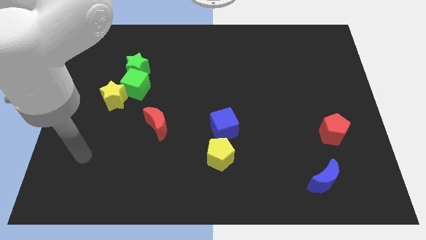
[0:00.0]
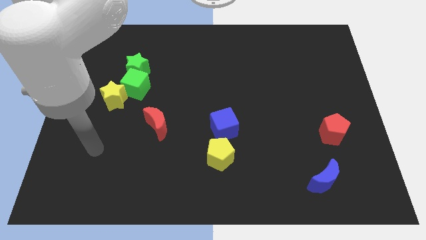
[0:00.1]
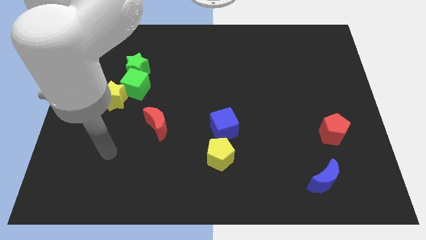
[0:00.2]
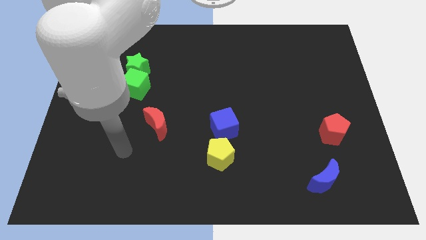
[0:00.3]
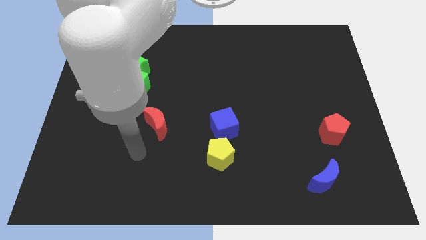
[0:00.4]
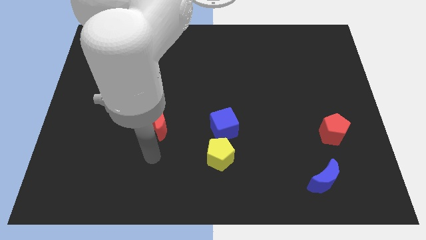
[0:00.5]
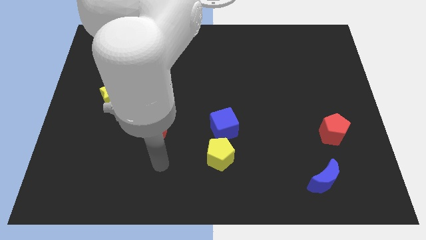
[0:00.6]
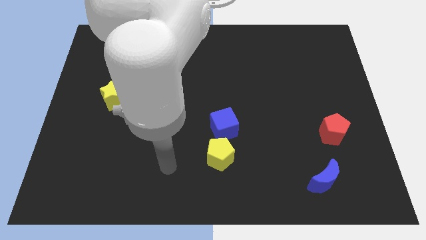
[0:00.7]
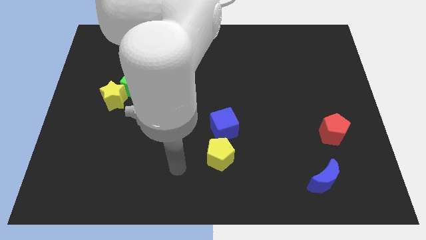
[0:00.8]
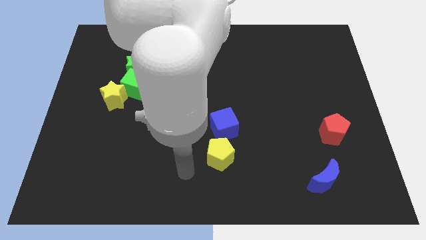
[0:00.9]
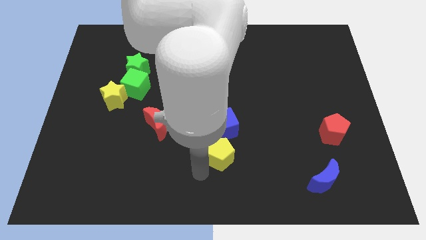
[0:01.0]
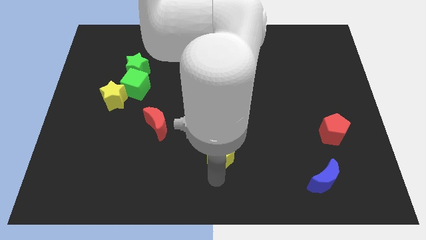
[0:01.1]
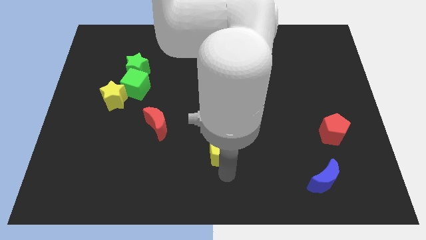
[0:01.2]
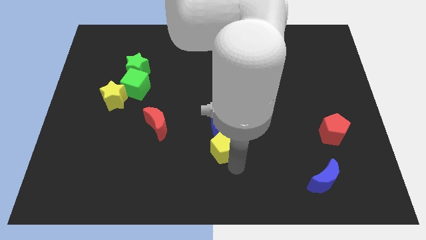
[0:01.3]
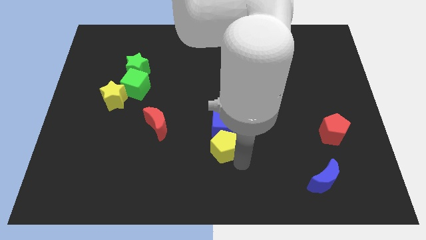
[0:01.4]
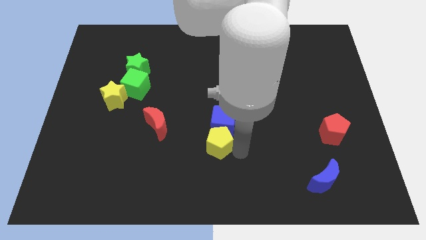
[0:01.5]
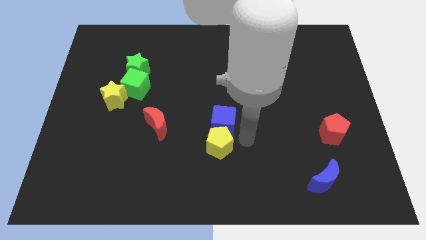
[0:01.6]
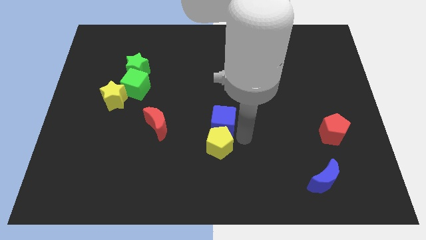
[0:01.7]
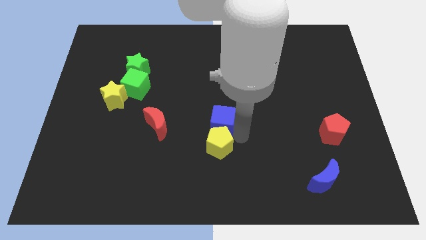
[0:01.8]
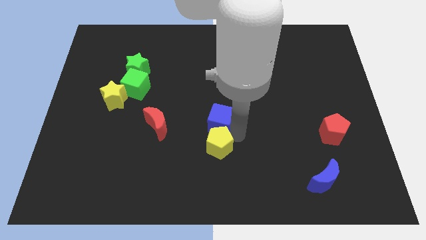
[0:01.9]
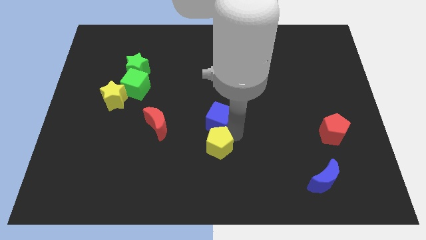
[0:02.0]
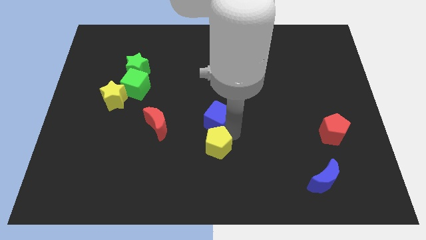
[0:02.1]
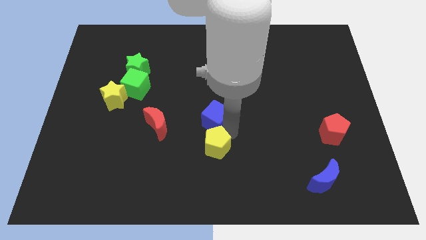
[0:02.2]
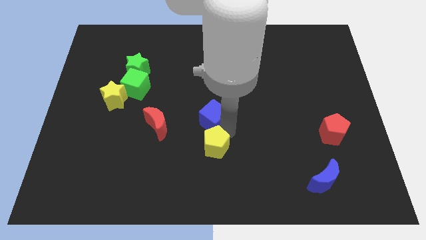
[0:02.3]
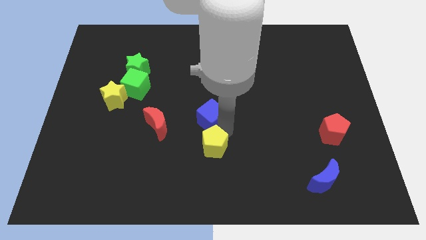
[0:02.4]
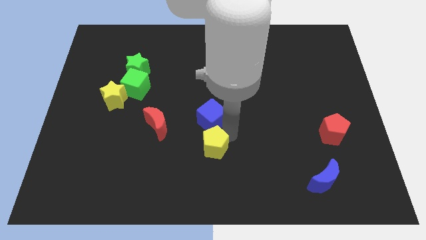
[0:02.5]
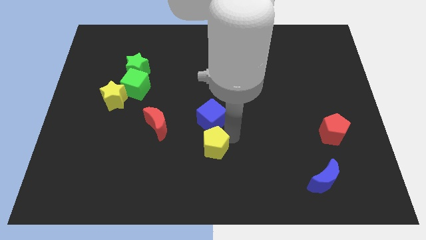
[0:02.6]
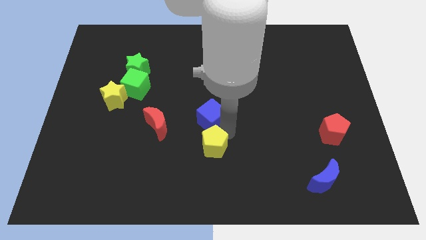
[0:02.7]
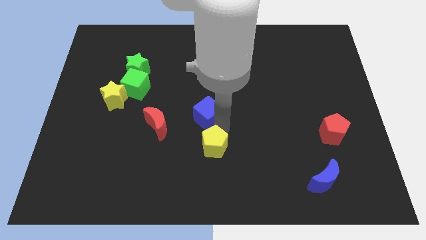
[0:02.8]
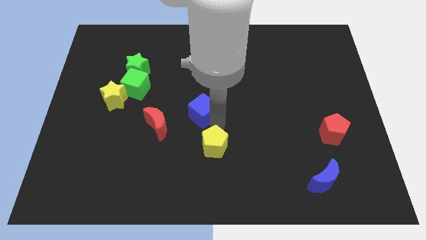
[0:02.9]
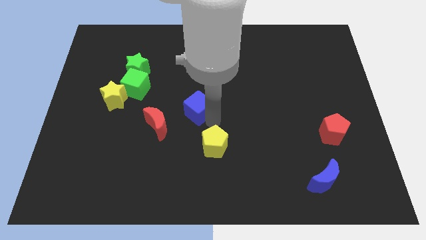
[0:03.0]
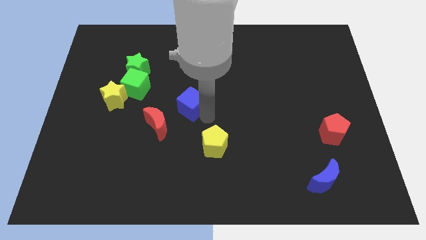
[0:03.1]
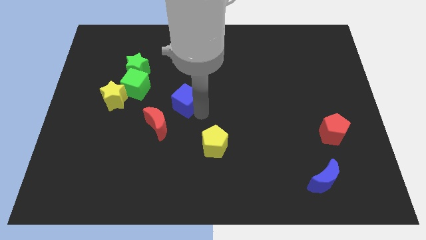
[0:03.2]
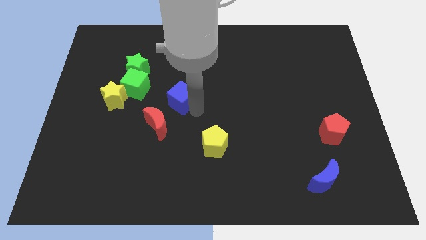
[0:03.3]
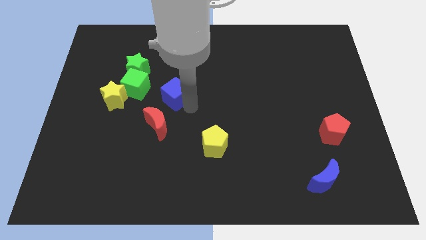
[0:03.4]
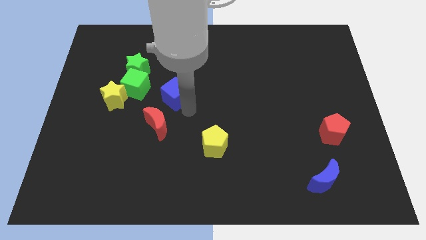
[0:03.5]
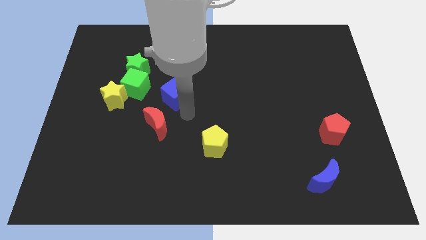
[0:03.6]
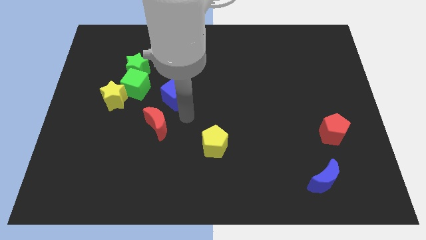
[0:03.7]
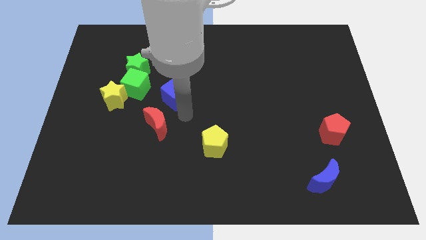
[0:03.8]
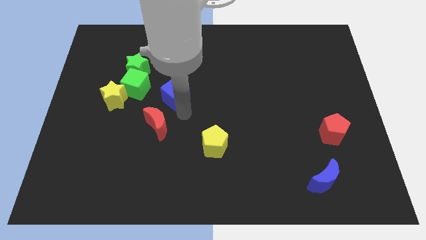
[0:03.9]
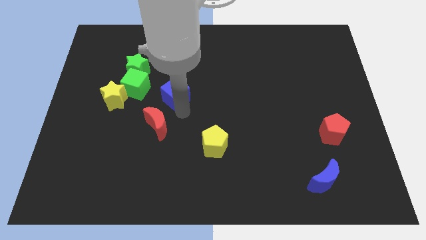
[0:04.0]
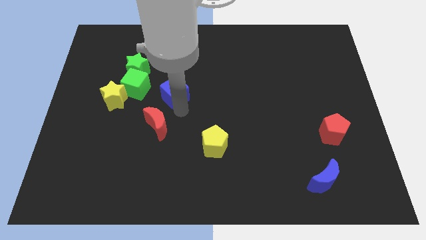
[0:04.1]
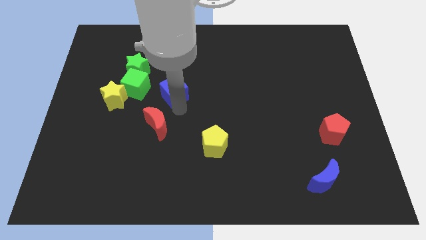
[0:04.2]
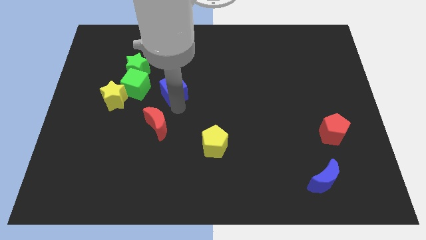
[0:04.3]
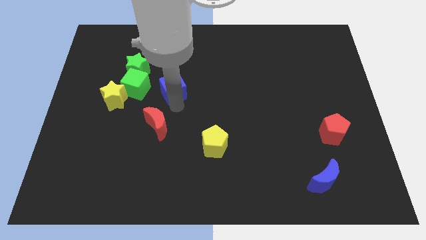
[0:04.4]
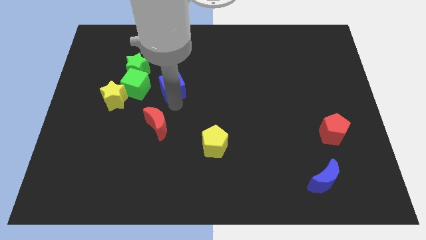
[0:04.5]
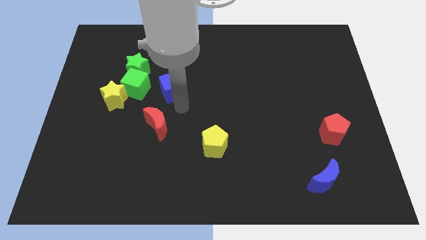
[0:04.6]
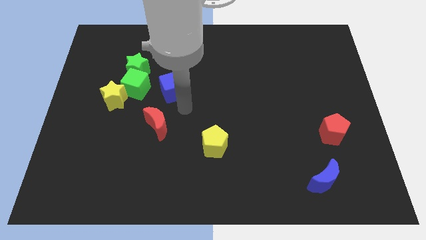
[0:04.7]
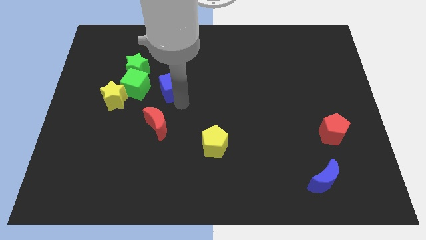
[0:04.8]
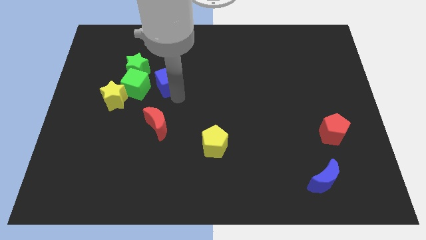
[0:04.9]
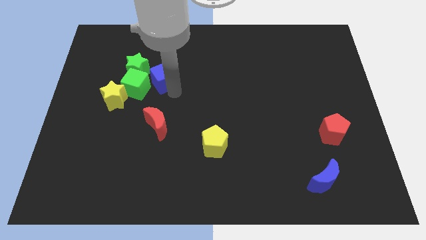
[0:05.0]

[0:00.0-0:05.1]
push the blue cube upwards and left

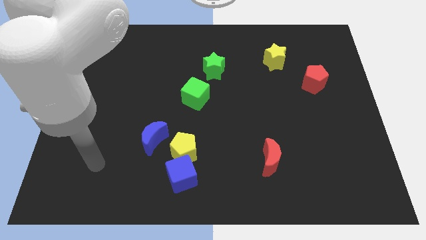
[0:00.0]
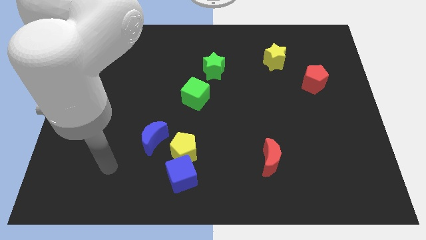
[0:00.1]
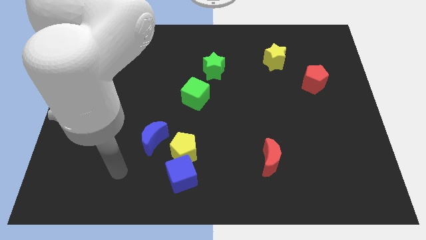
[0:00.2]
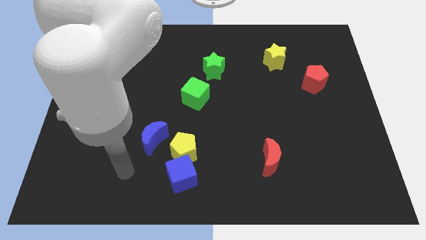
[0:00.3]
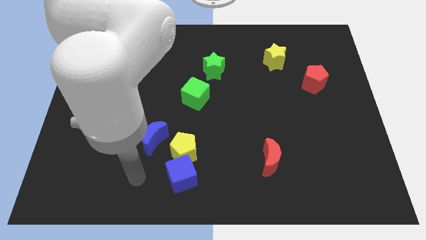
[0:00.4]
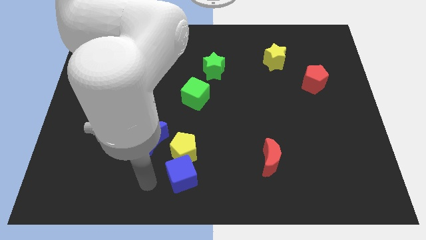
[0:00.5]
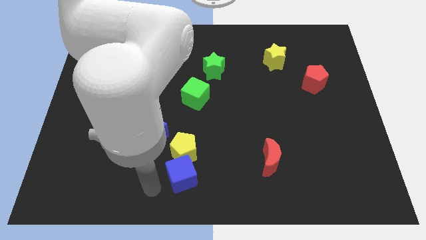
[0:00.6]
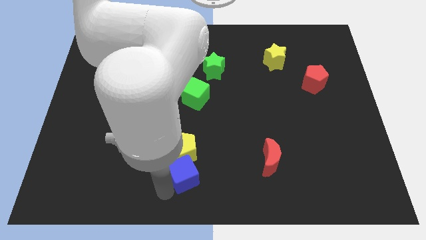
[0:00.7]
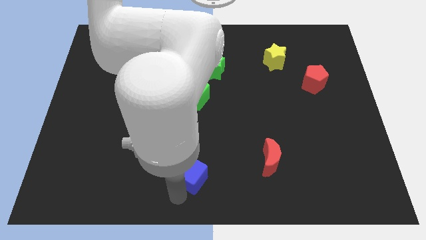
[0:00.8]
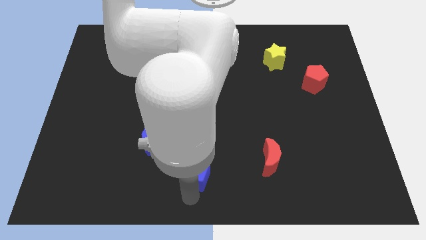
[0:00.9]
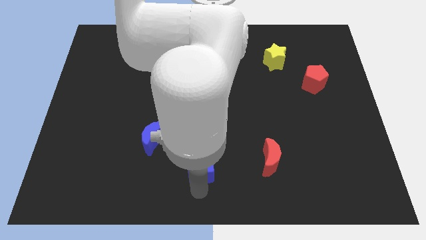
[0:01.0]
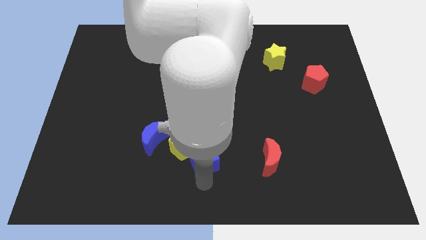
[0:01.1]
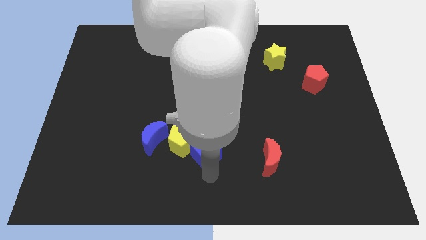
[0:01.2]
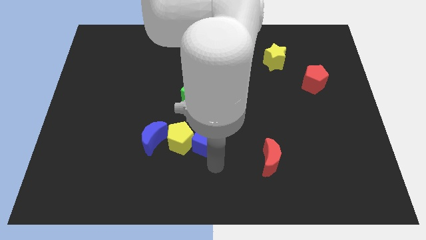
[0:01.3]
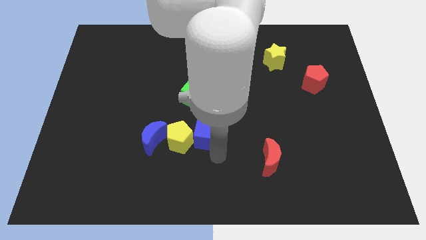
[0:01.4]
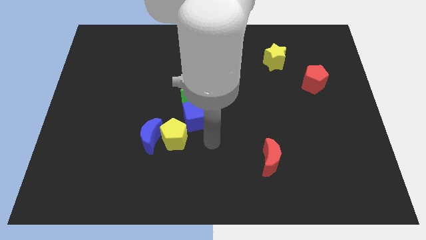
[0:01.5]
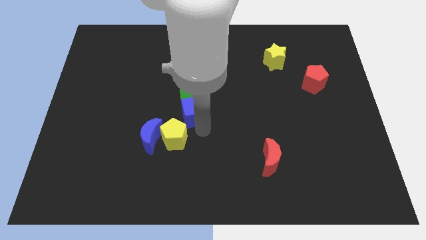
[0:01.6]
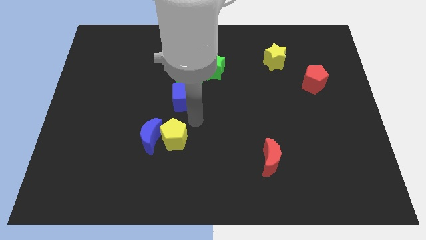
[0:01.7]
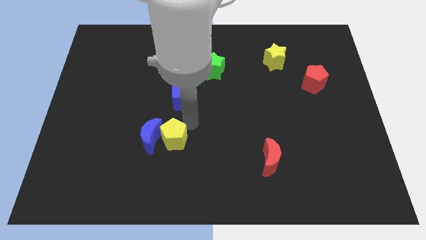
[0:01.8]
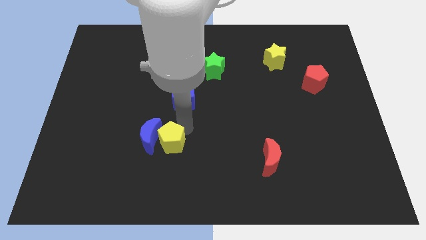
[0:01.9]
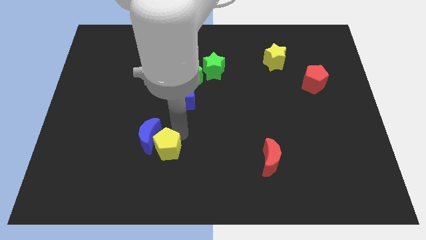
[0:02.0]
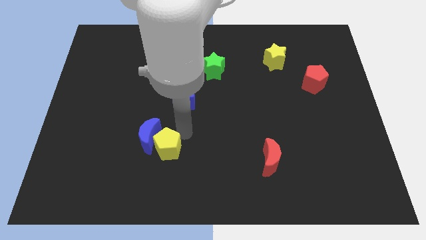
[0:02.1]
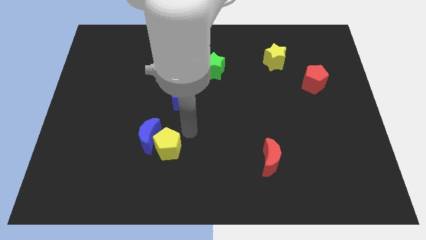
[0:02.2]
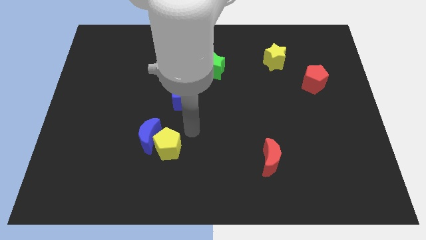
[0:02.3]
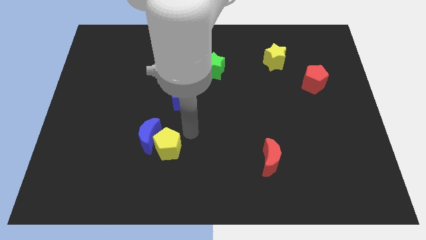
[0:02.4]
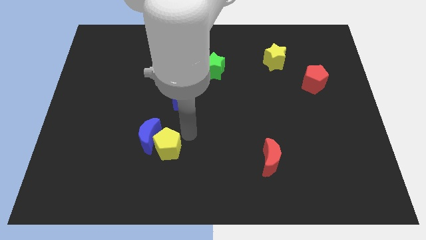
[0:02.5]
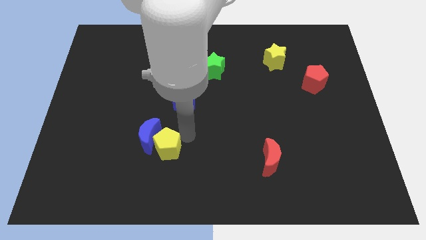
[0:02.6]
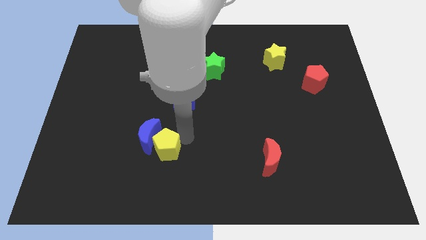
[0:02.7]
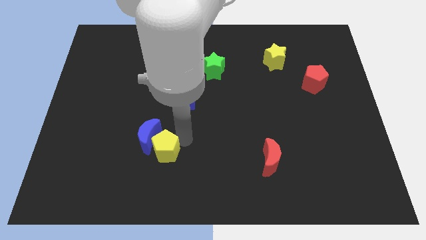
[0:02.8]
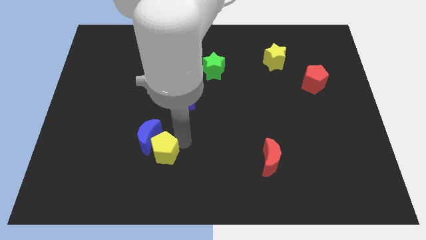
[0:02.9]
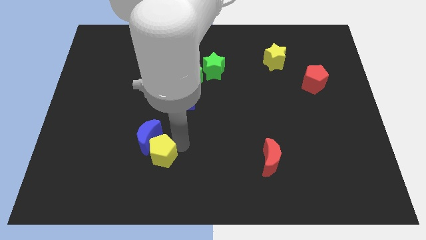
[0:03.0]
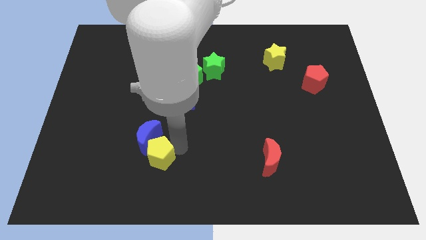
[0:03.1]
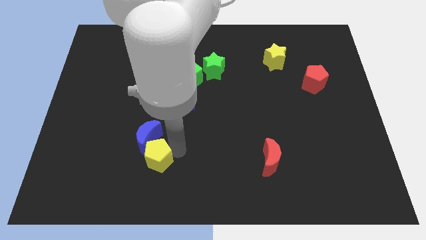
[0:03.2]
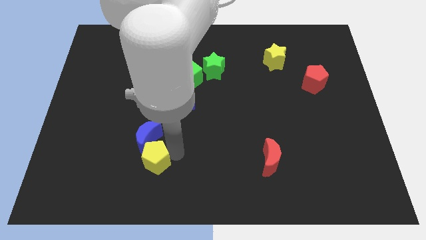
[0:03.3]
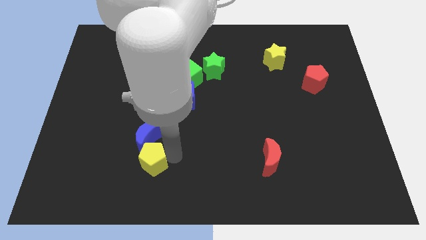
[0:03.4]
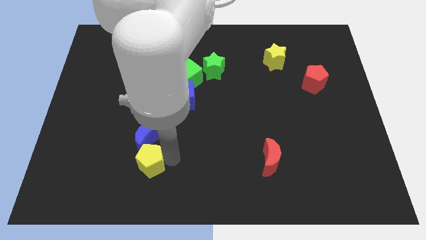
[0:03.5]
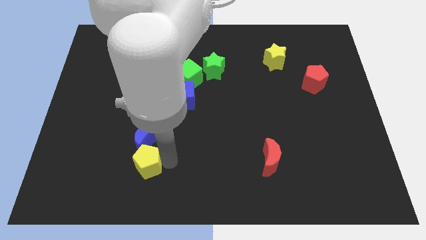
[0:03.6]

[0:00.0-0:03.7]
move the yellow pentagon slightly left
